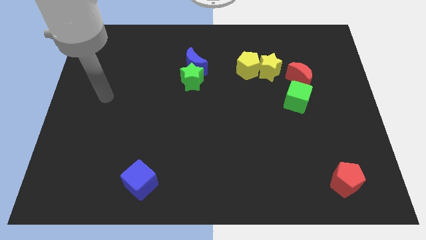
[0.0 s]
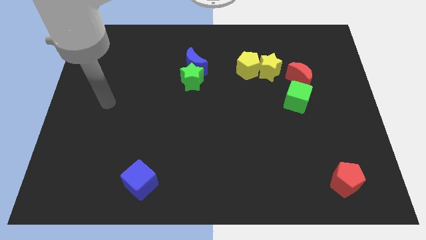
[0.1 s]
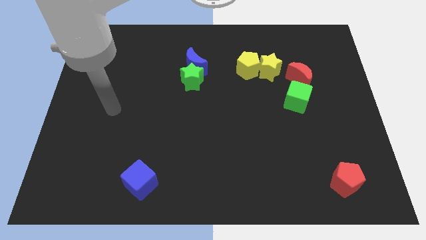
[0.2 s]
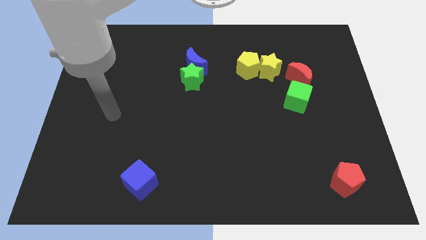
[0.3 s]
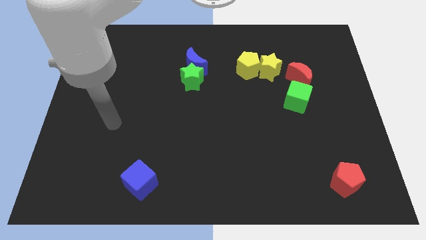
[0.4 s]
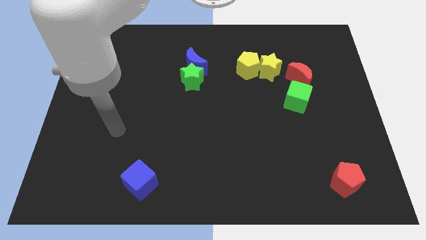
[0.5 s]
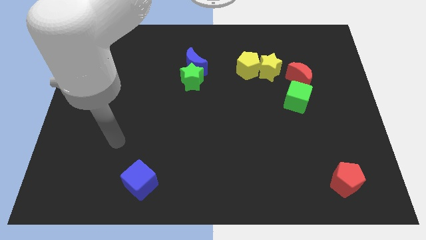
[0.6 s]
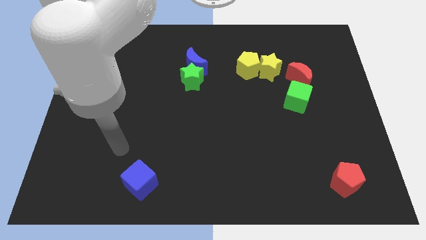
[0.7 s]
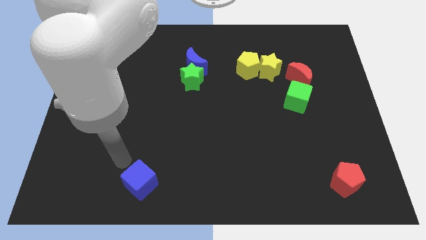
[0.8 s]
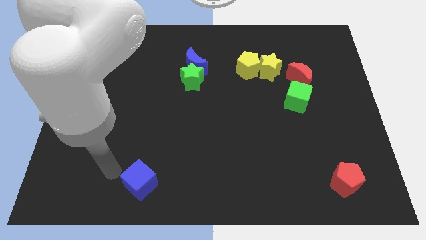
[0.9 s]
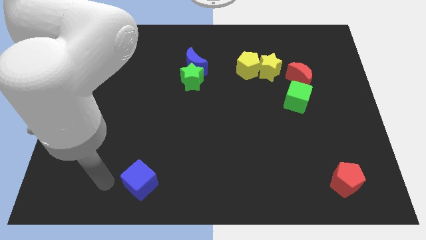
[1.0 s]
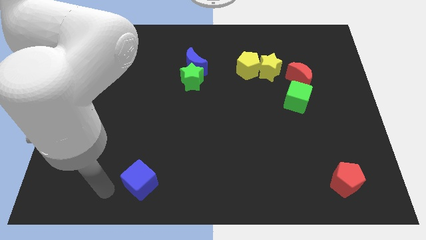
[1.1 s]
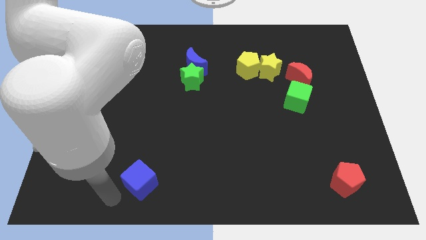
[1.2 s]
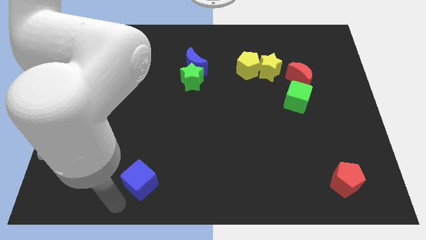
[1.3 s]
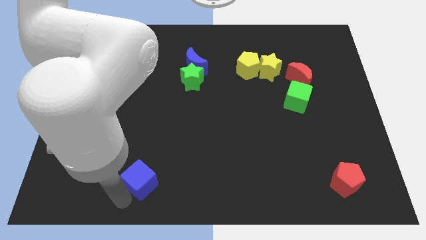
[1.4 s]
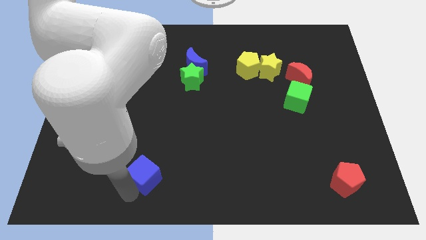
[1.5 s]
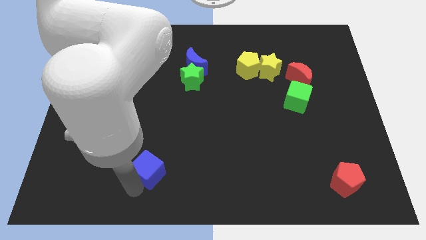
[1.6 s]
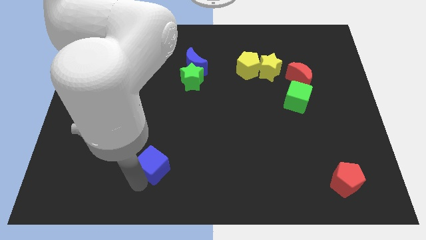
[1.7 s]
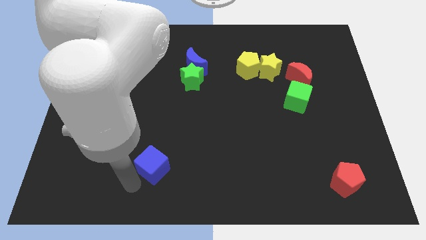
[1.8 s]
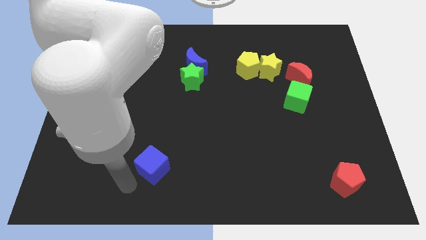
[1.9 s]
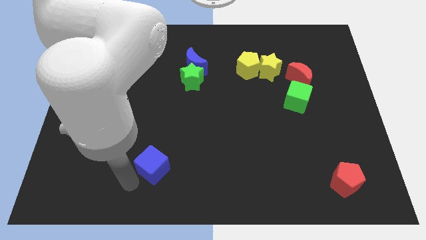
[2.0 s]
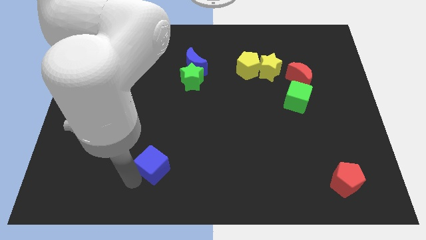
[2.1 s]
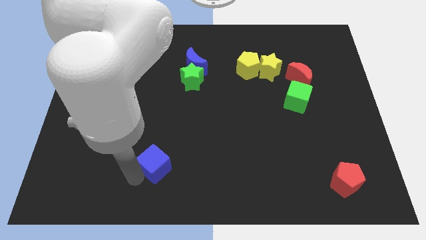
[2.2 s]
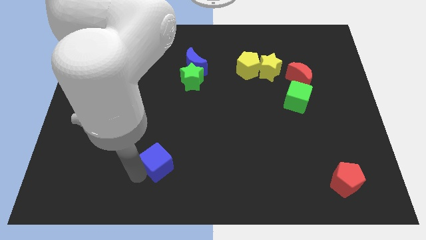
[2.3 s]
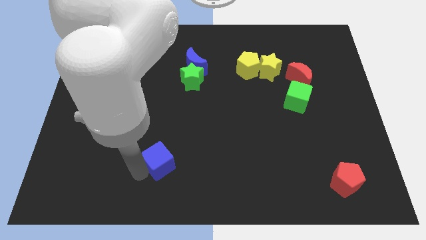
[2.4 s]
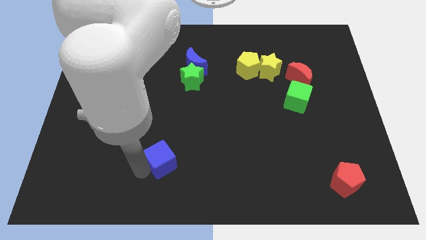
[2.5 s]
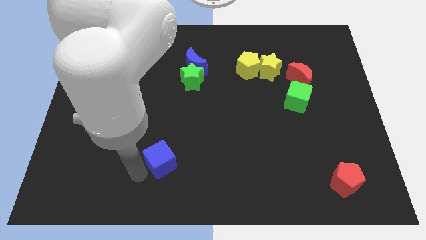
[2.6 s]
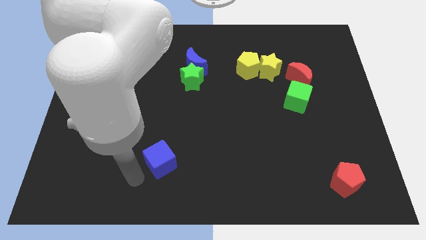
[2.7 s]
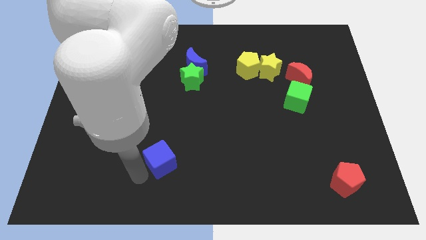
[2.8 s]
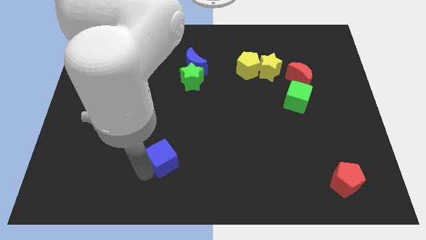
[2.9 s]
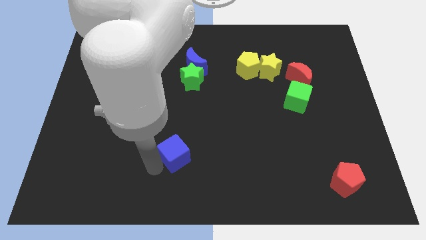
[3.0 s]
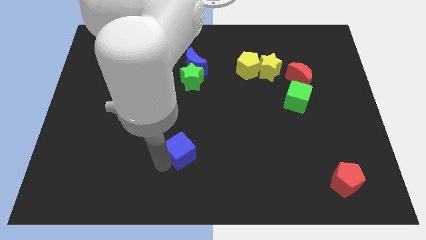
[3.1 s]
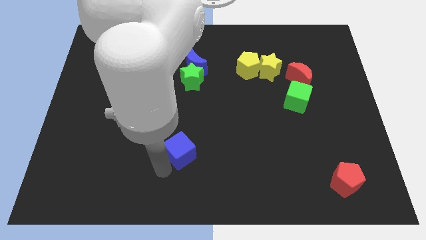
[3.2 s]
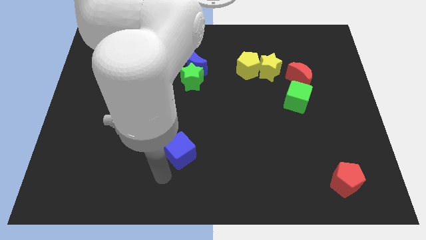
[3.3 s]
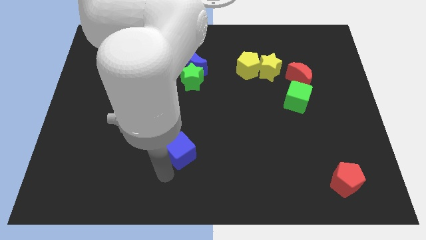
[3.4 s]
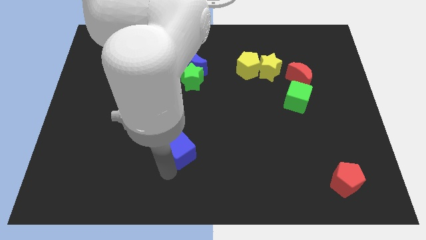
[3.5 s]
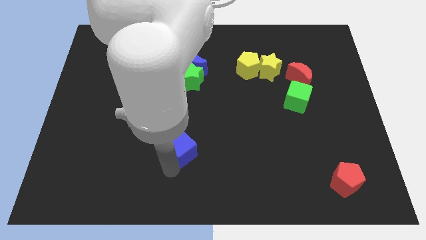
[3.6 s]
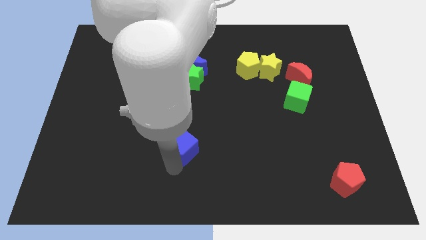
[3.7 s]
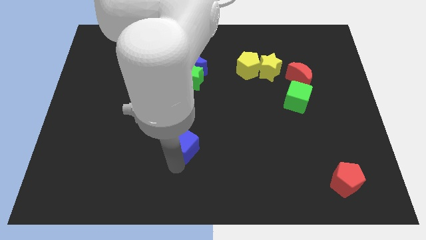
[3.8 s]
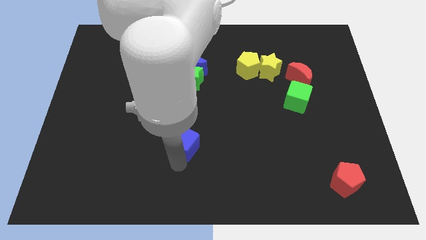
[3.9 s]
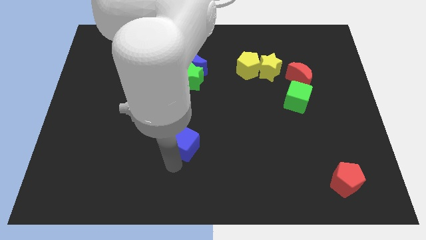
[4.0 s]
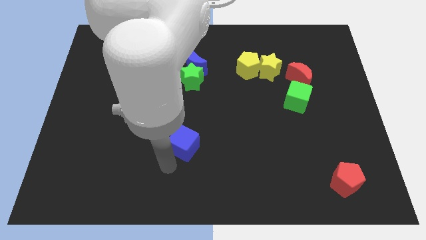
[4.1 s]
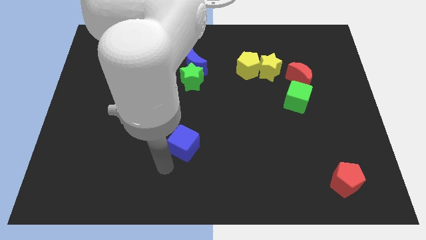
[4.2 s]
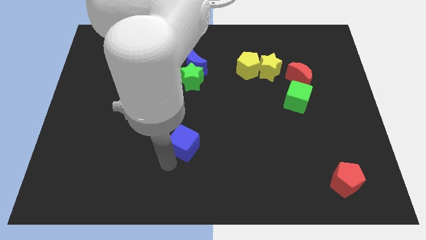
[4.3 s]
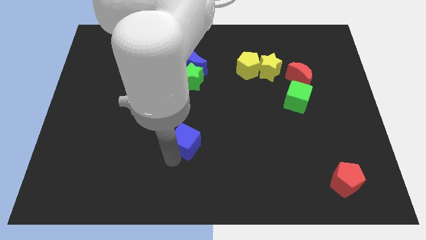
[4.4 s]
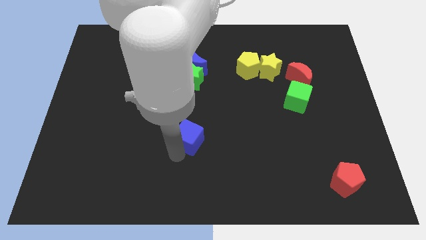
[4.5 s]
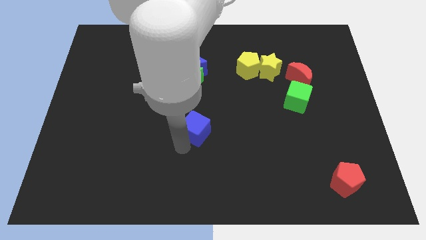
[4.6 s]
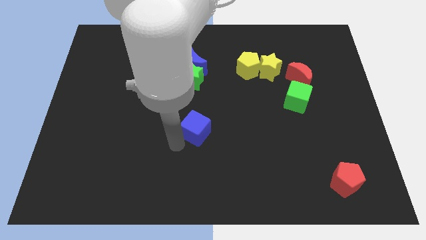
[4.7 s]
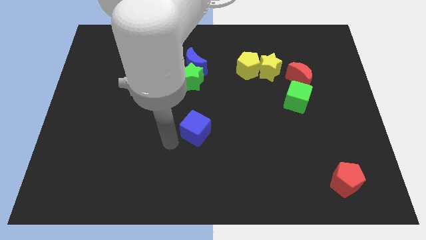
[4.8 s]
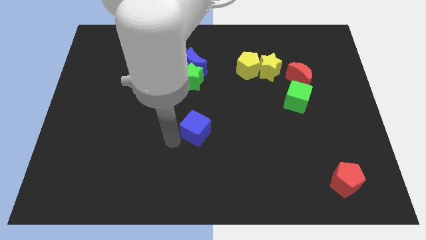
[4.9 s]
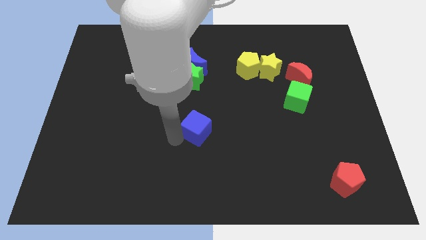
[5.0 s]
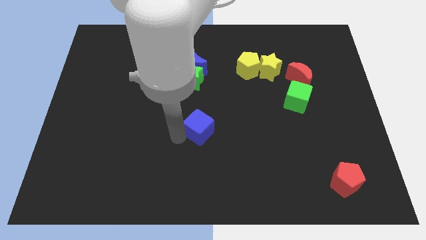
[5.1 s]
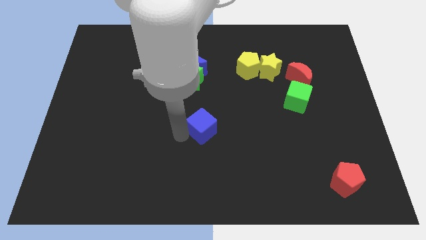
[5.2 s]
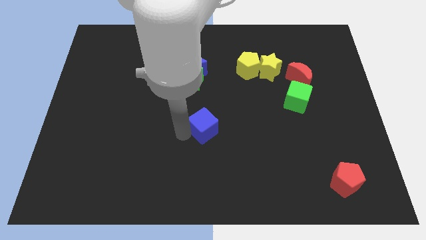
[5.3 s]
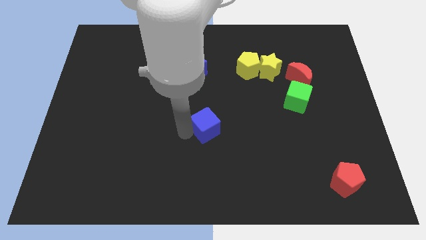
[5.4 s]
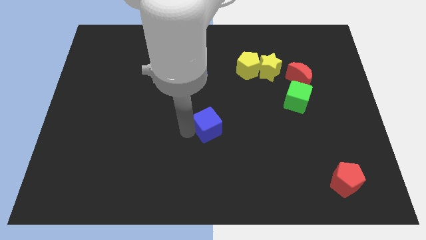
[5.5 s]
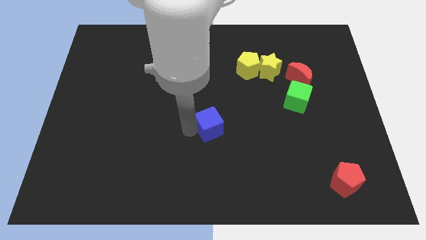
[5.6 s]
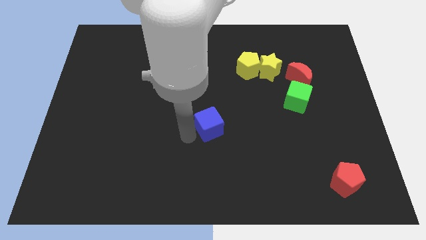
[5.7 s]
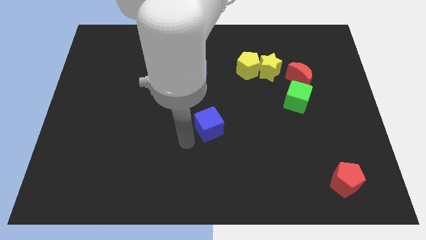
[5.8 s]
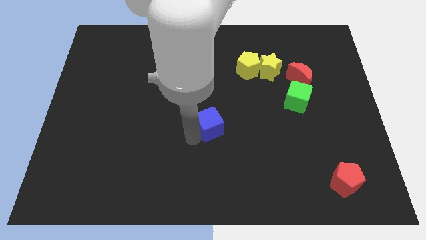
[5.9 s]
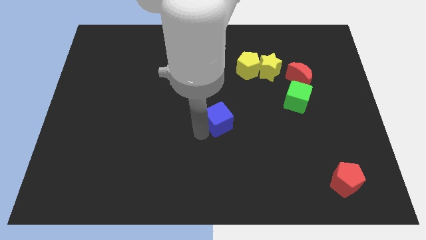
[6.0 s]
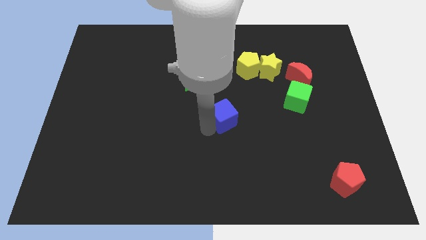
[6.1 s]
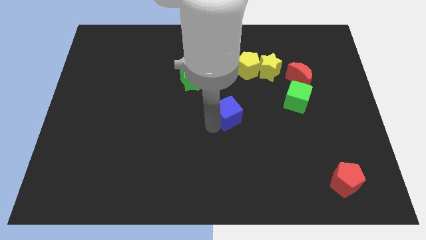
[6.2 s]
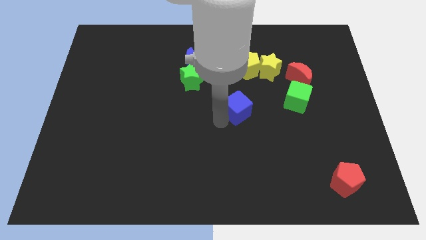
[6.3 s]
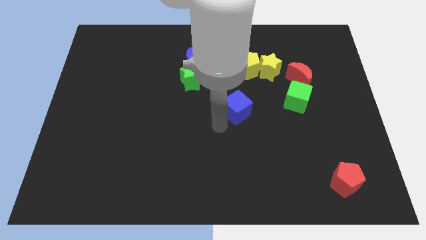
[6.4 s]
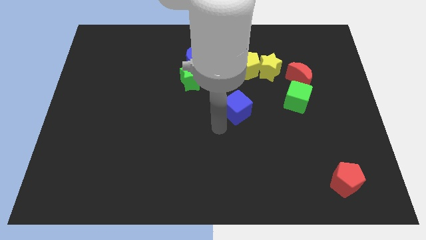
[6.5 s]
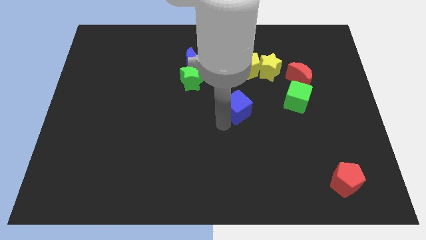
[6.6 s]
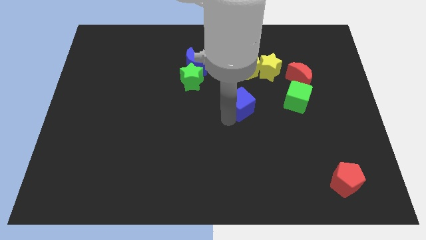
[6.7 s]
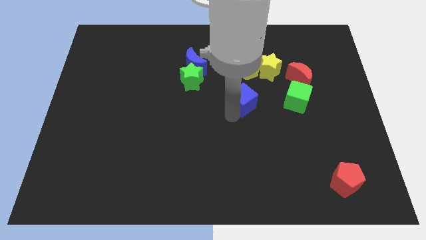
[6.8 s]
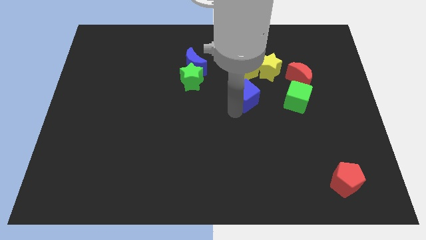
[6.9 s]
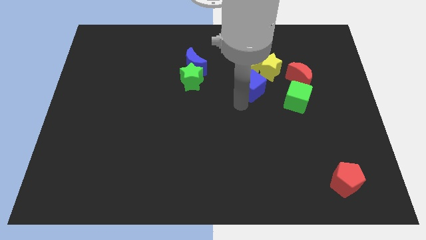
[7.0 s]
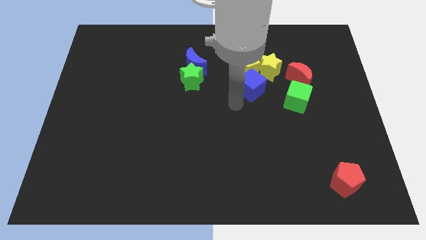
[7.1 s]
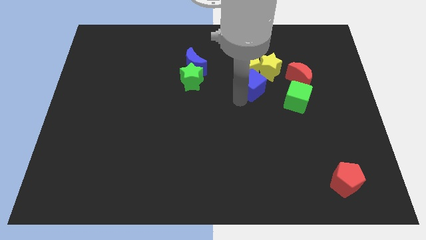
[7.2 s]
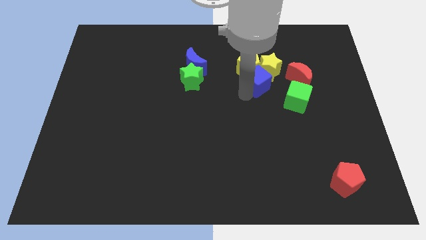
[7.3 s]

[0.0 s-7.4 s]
push the blue cube next to the yellow star
